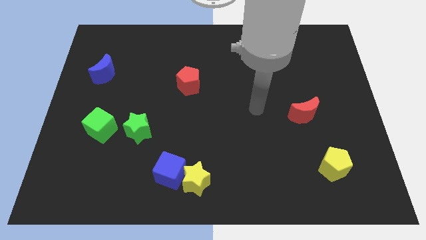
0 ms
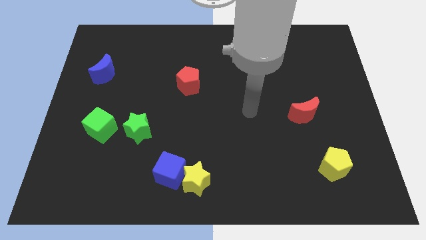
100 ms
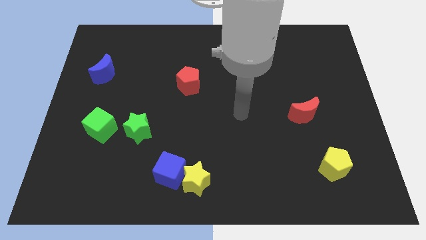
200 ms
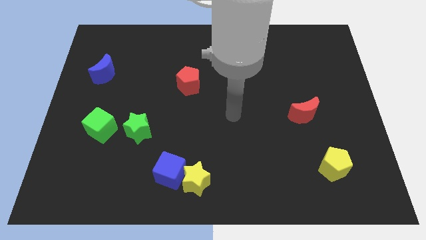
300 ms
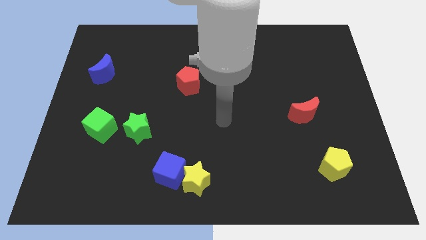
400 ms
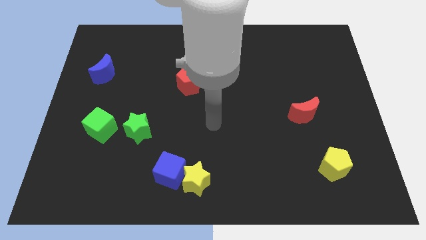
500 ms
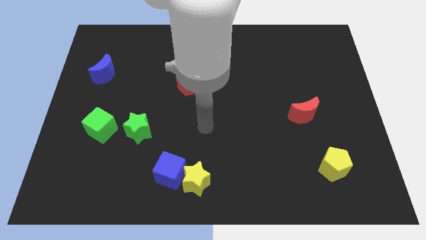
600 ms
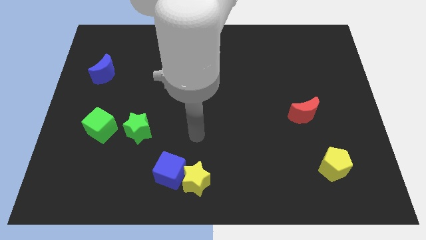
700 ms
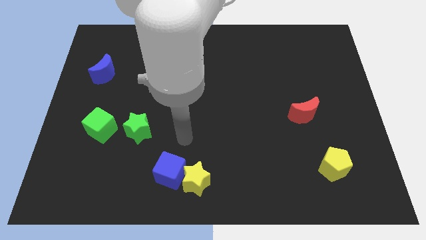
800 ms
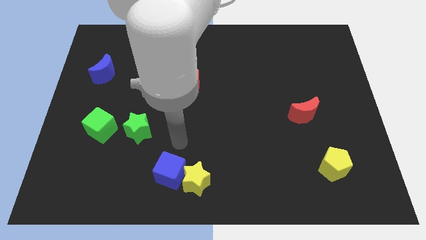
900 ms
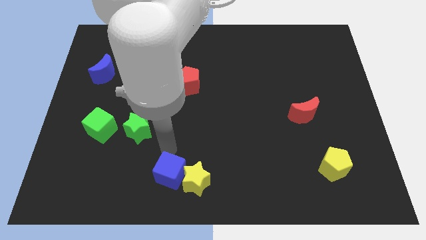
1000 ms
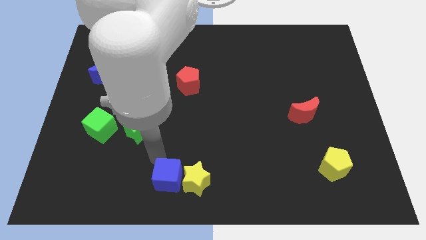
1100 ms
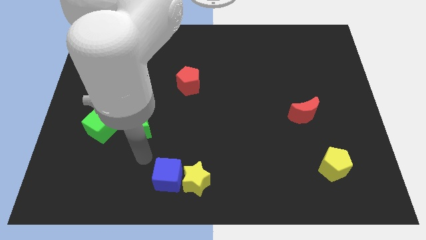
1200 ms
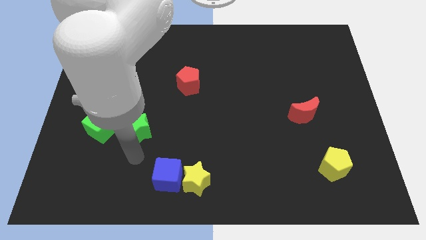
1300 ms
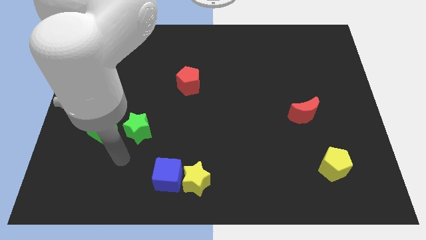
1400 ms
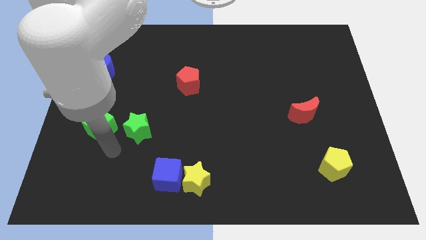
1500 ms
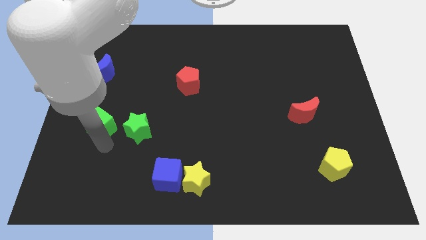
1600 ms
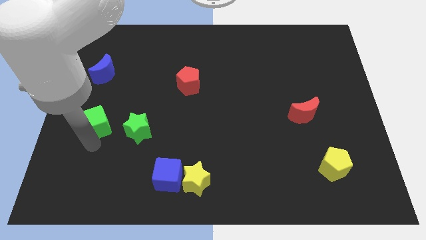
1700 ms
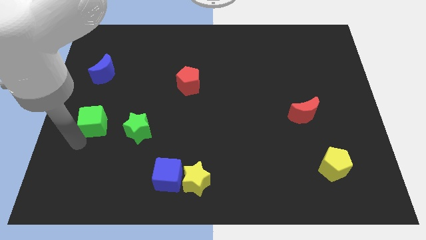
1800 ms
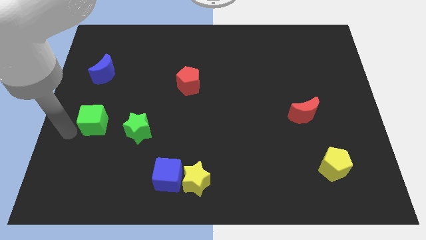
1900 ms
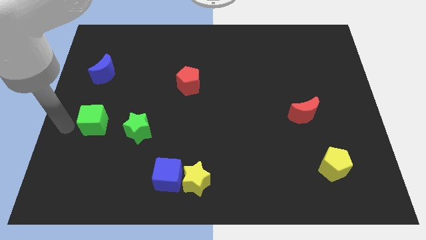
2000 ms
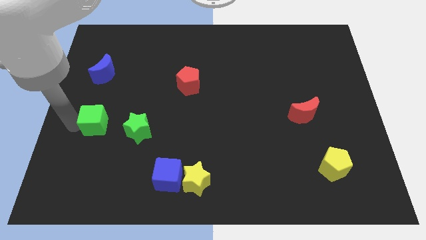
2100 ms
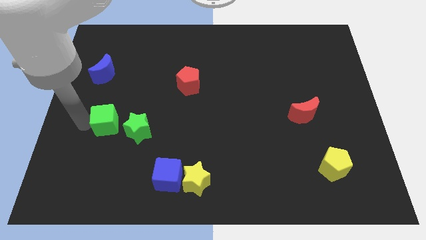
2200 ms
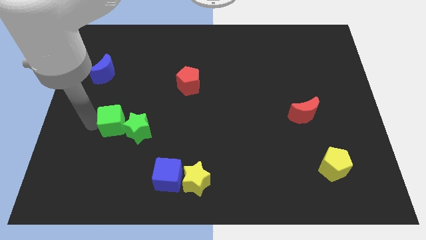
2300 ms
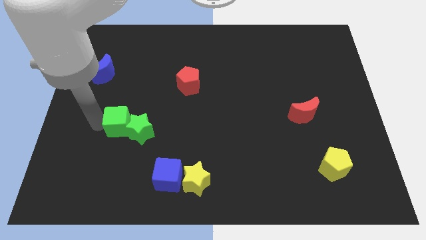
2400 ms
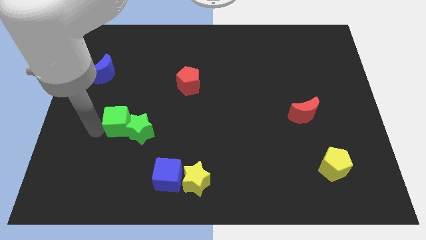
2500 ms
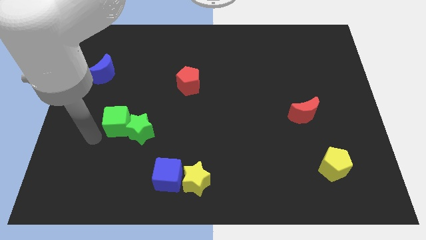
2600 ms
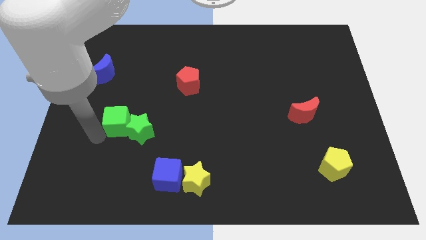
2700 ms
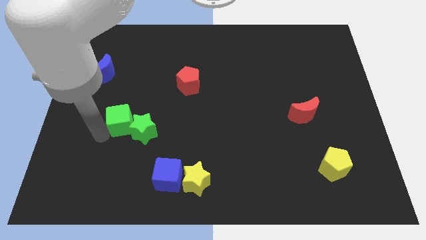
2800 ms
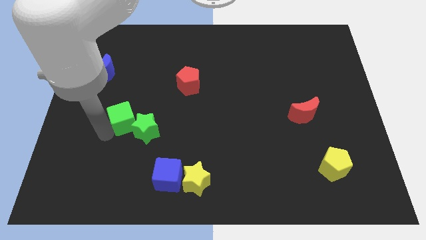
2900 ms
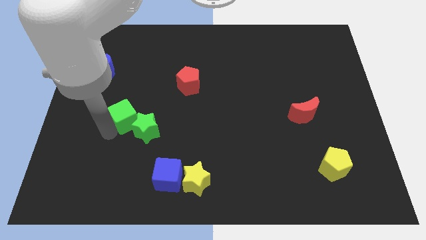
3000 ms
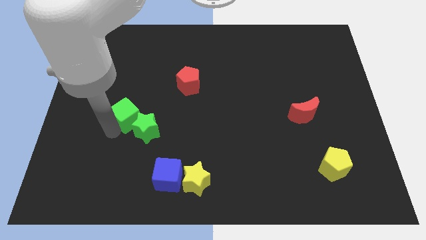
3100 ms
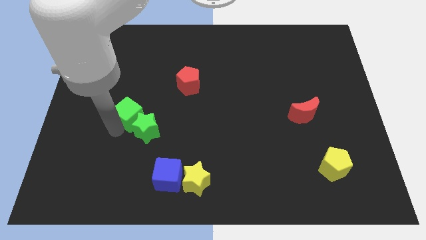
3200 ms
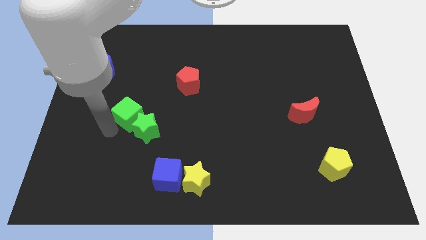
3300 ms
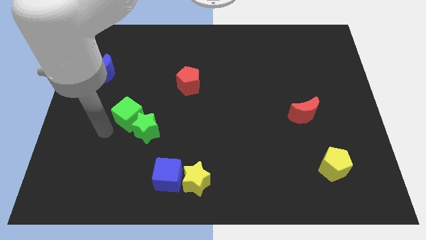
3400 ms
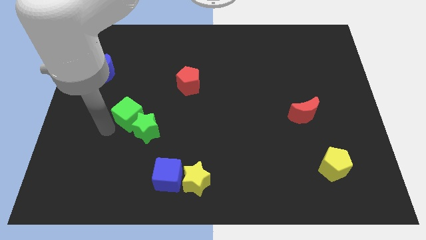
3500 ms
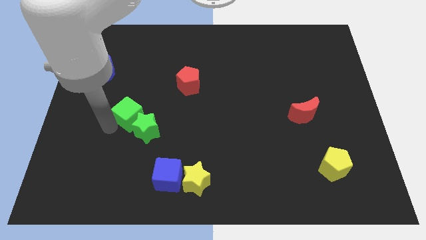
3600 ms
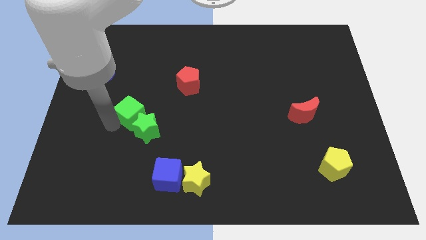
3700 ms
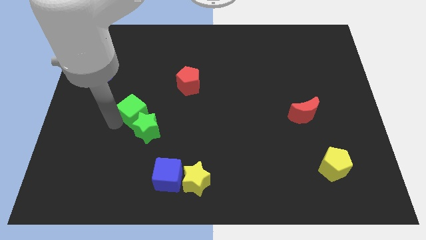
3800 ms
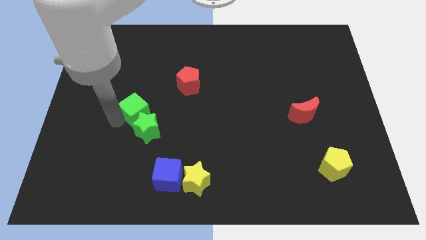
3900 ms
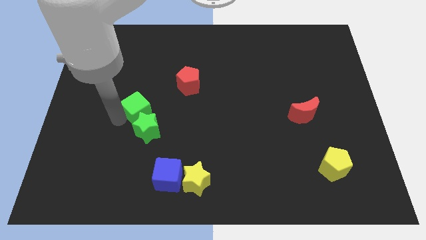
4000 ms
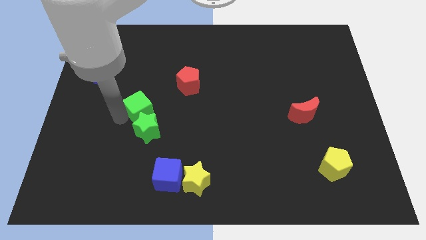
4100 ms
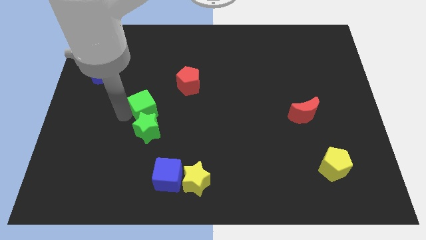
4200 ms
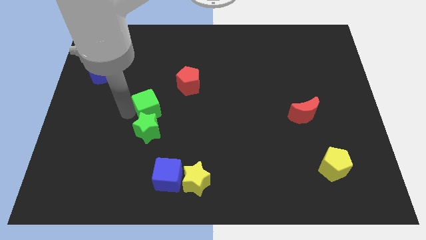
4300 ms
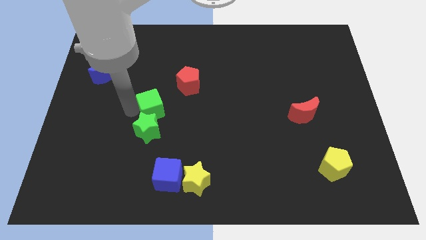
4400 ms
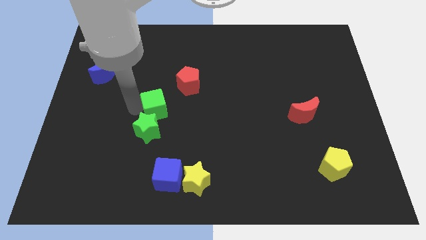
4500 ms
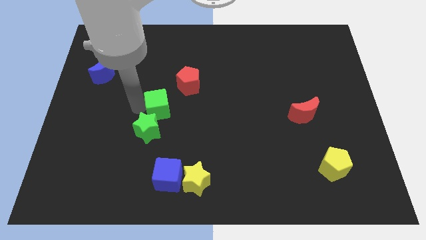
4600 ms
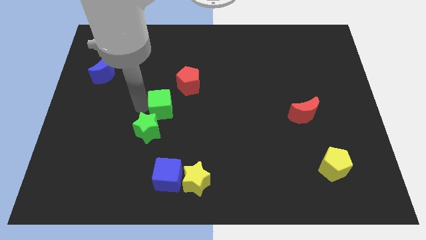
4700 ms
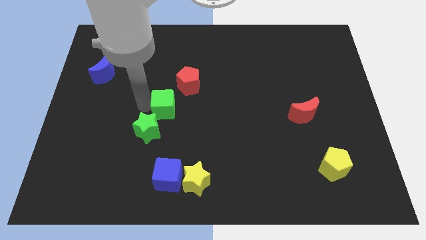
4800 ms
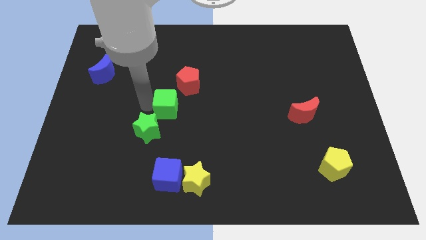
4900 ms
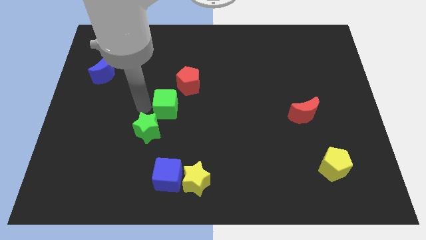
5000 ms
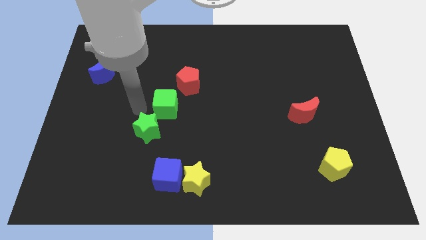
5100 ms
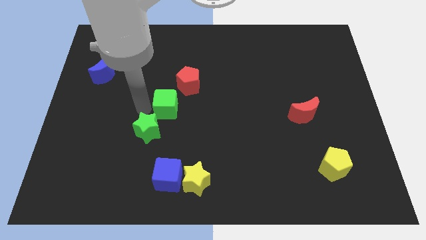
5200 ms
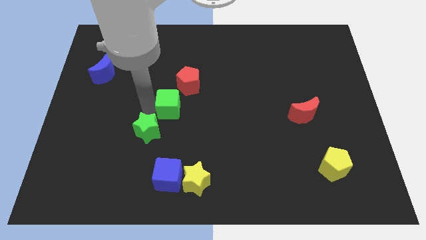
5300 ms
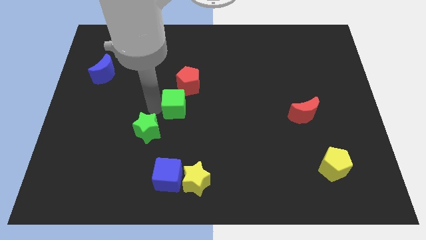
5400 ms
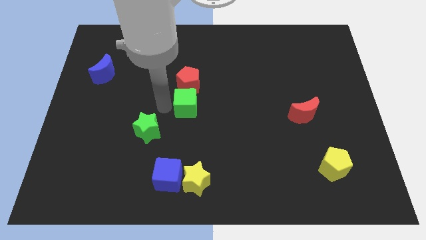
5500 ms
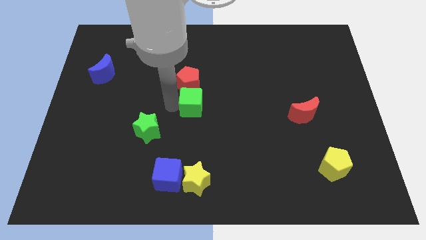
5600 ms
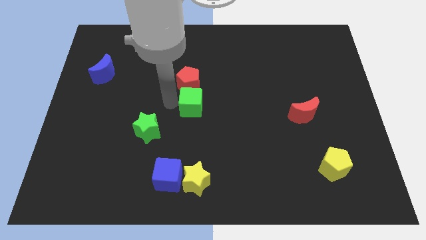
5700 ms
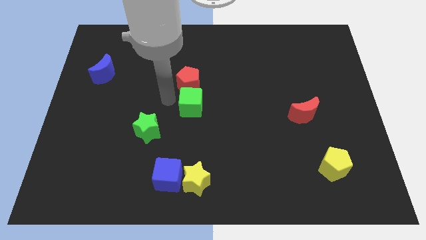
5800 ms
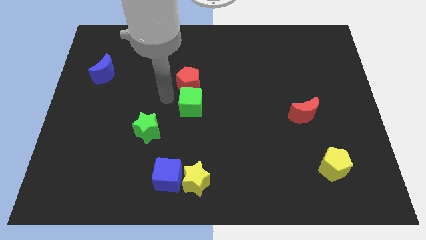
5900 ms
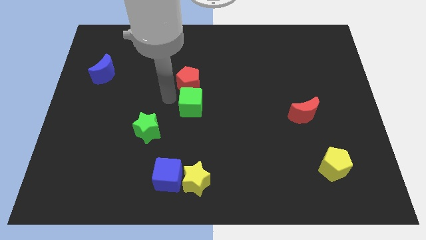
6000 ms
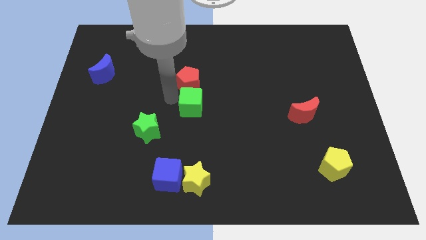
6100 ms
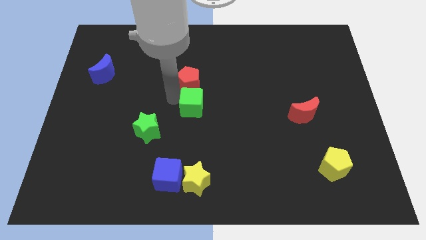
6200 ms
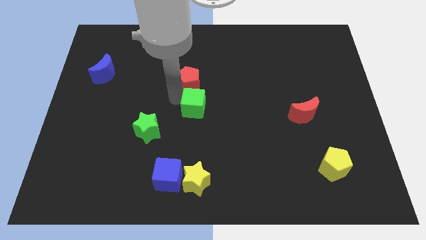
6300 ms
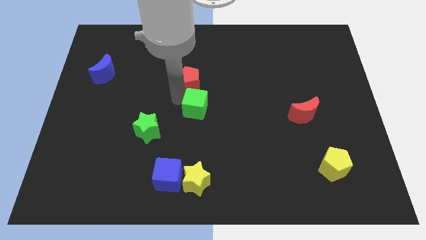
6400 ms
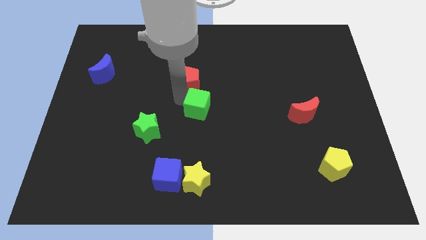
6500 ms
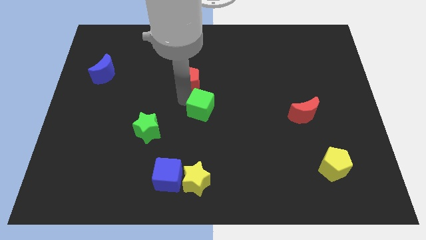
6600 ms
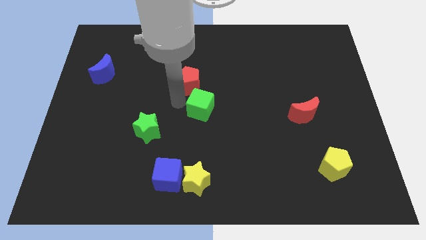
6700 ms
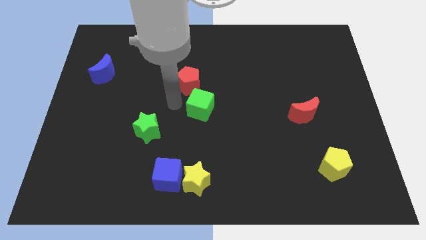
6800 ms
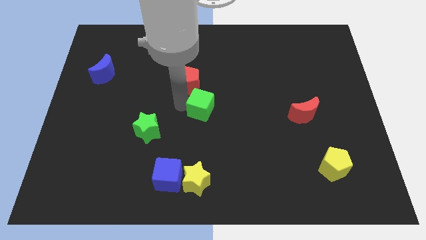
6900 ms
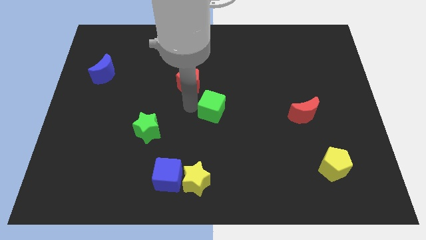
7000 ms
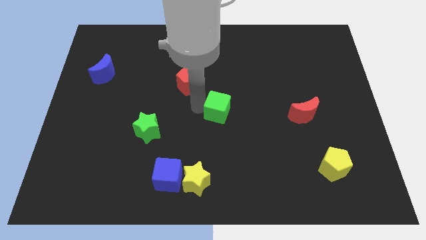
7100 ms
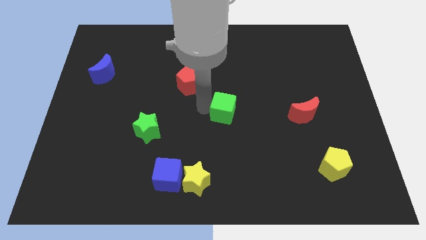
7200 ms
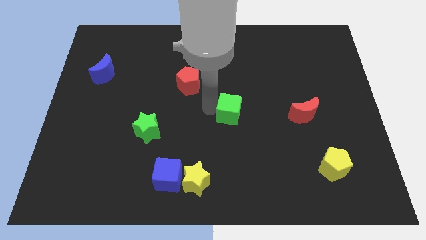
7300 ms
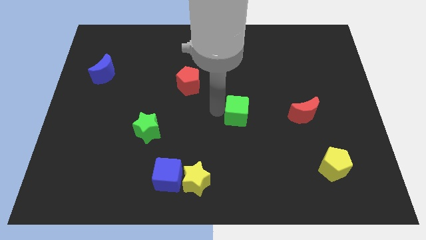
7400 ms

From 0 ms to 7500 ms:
put the green cube to the left of the red moon

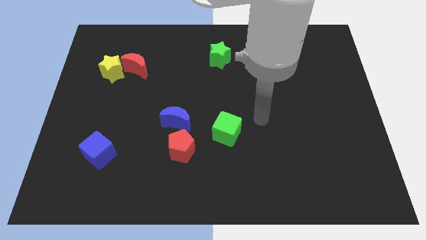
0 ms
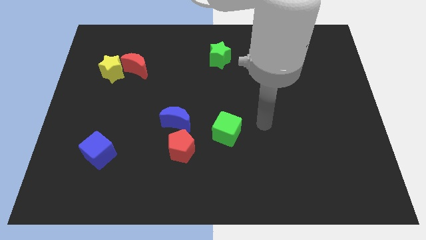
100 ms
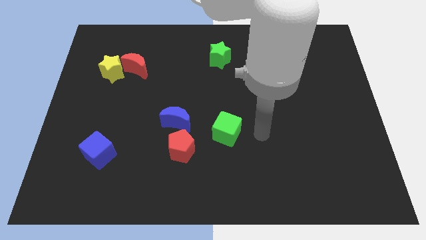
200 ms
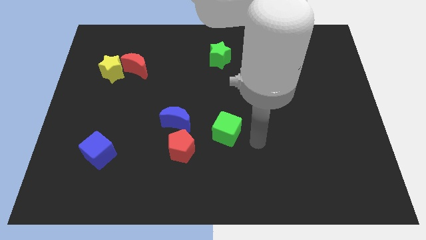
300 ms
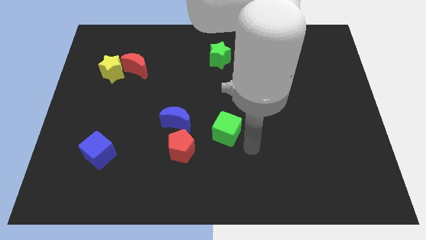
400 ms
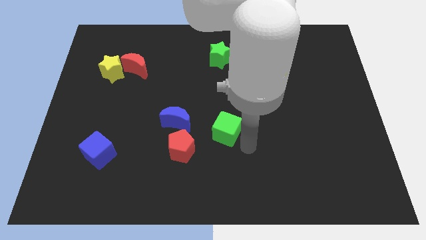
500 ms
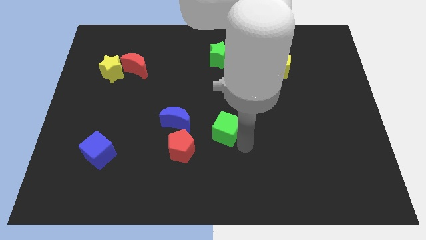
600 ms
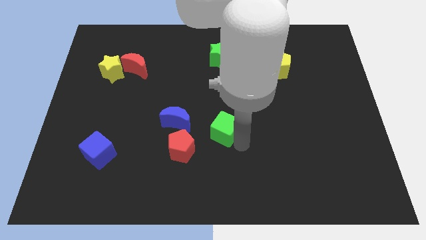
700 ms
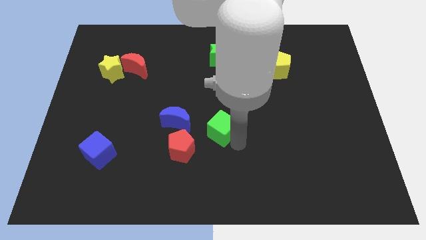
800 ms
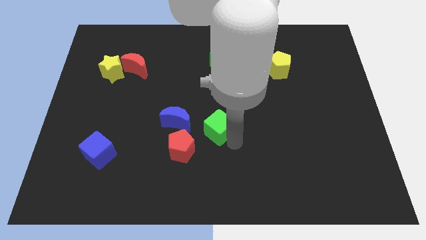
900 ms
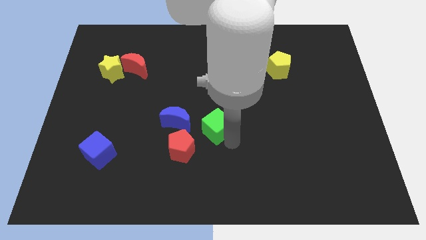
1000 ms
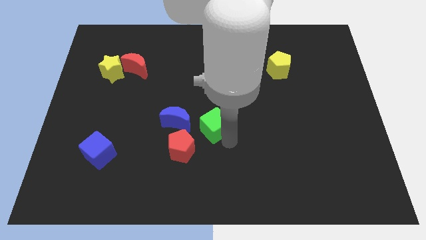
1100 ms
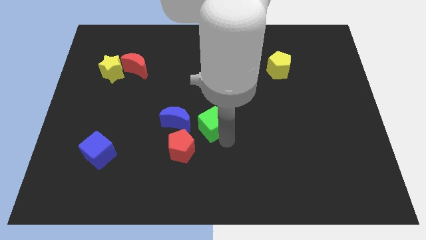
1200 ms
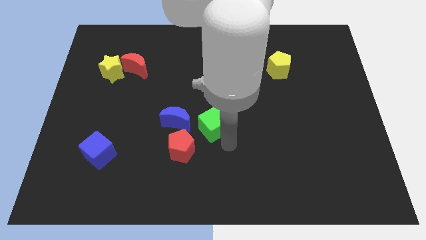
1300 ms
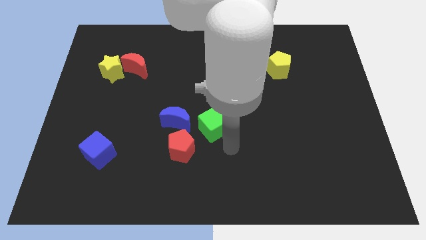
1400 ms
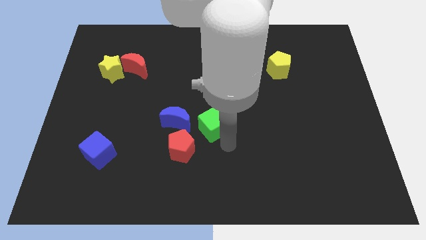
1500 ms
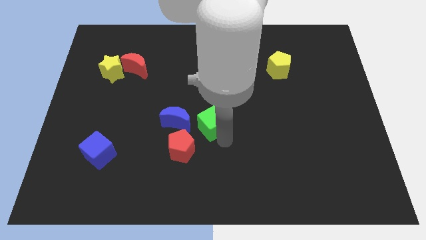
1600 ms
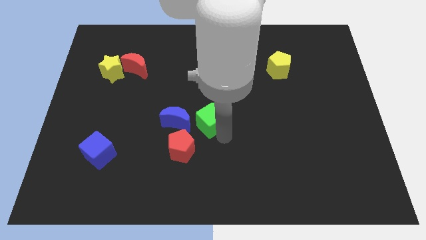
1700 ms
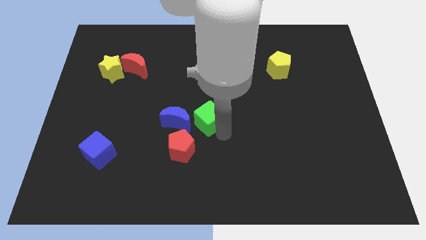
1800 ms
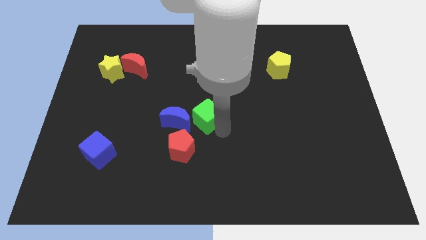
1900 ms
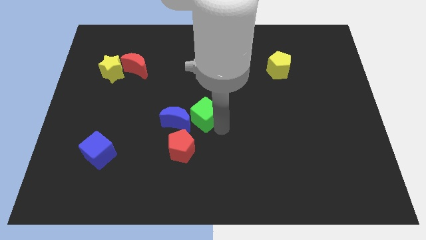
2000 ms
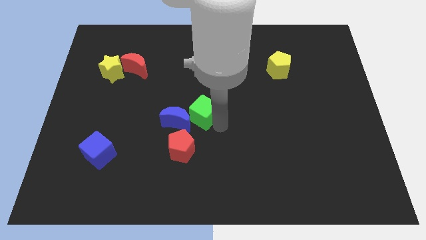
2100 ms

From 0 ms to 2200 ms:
push the green cube to the top side of the red pentagon
